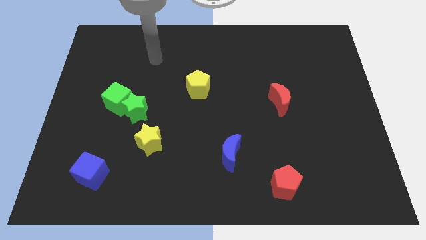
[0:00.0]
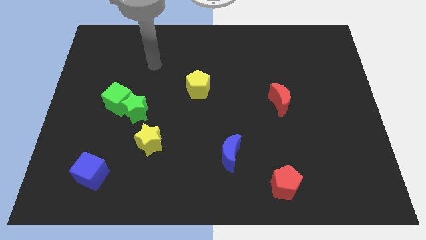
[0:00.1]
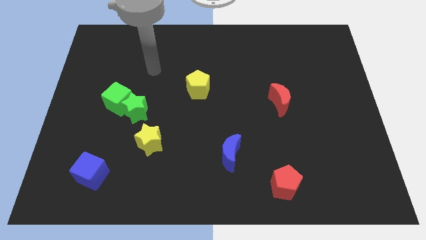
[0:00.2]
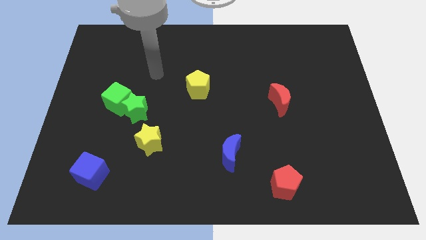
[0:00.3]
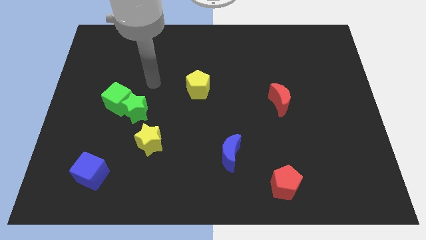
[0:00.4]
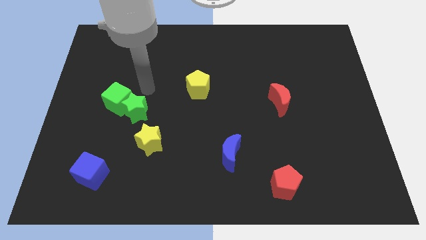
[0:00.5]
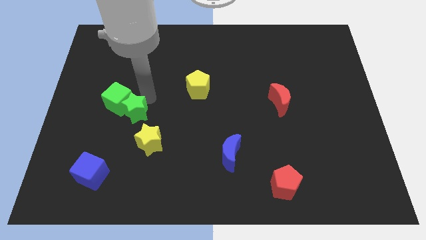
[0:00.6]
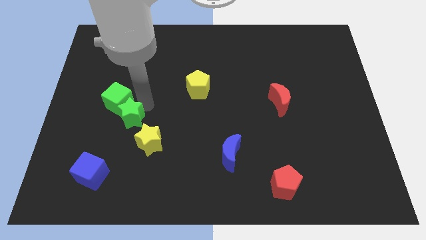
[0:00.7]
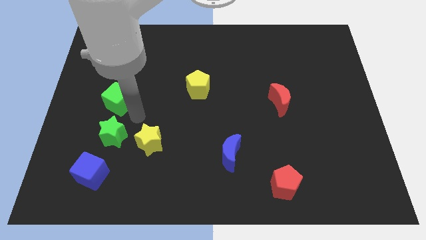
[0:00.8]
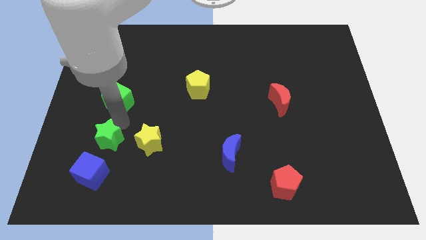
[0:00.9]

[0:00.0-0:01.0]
move the green cube away from the green star

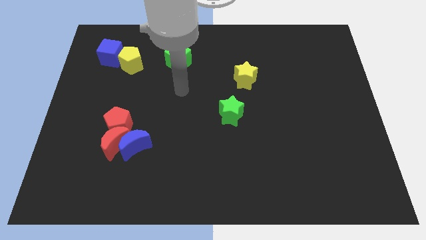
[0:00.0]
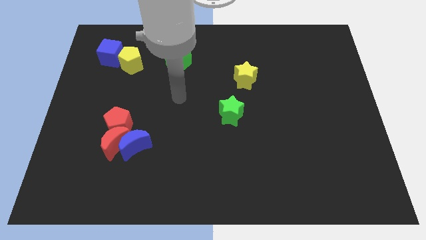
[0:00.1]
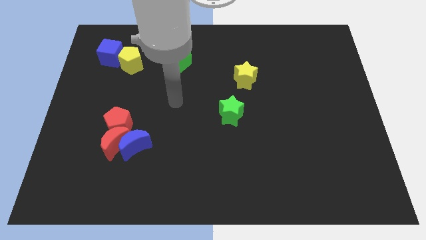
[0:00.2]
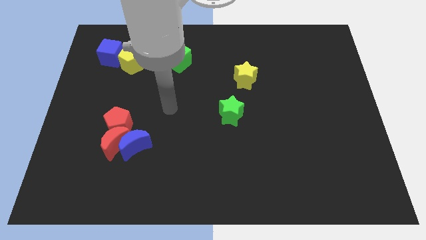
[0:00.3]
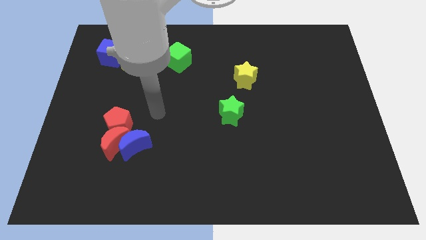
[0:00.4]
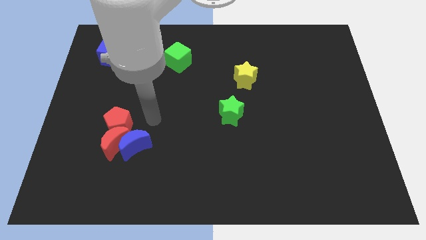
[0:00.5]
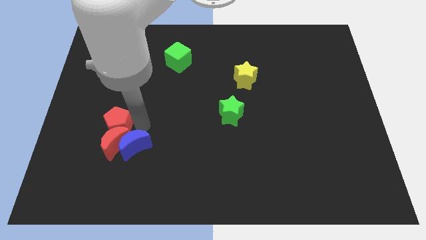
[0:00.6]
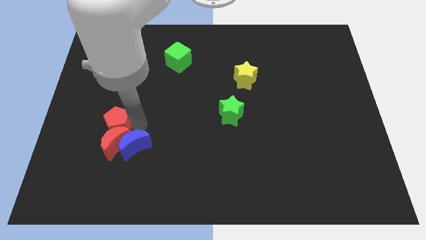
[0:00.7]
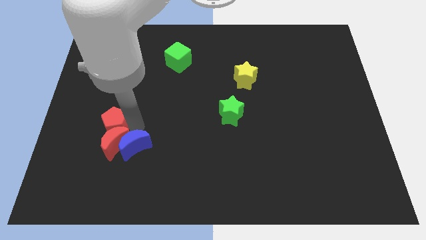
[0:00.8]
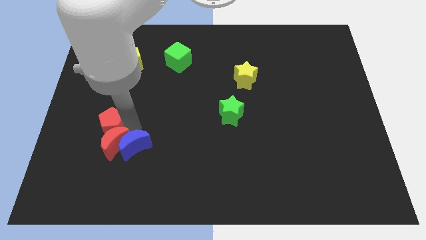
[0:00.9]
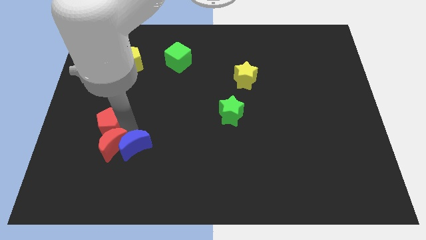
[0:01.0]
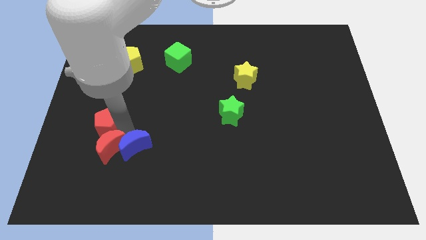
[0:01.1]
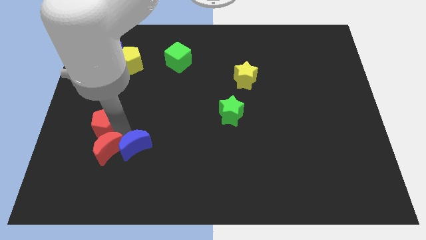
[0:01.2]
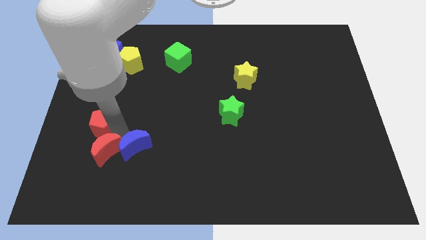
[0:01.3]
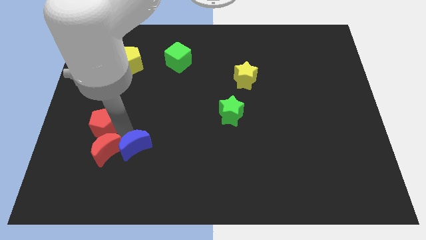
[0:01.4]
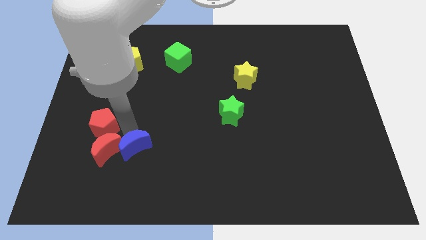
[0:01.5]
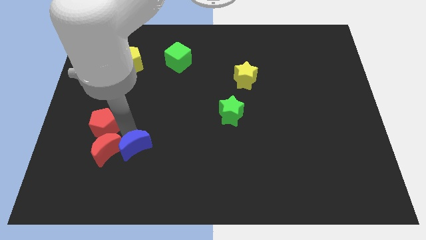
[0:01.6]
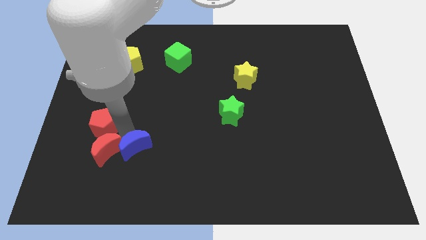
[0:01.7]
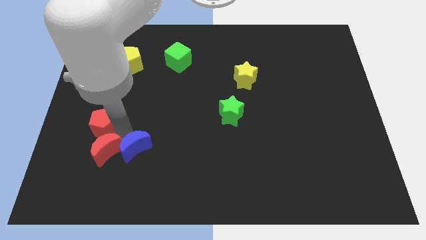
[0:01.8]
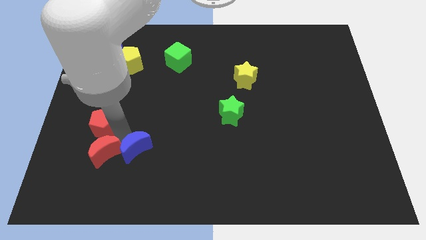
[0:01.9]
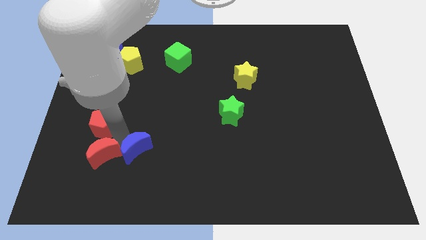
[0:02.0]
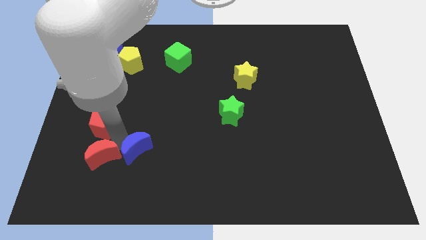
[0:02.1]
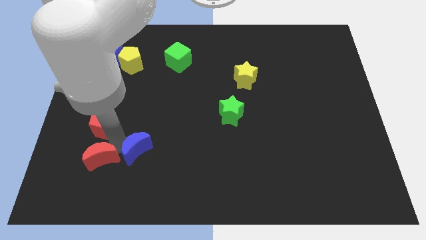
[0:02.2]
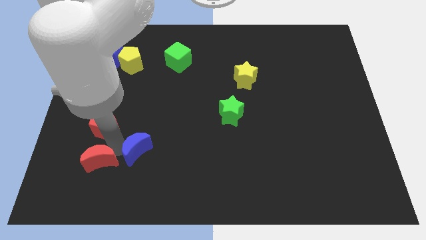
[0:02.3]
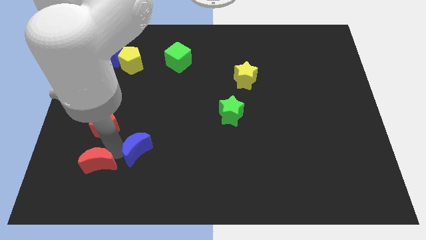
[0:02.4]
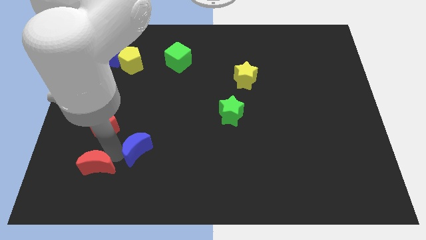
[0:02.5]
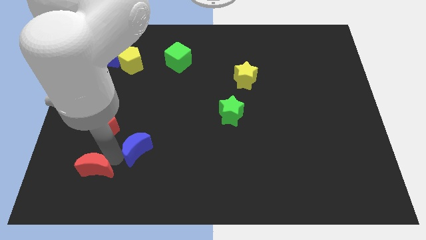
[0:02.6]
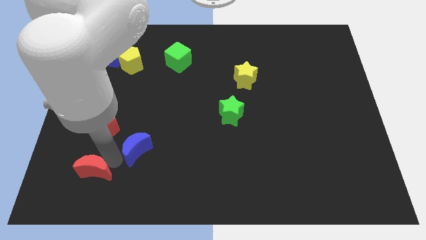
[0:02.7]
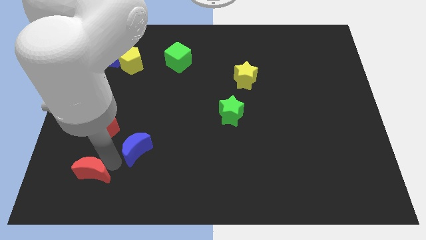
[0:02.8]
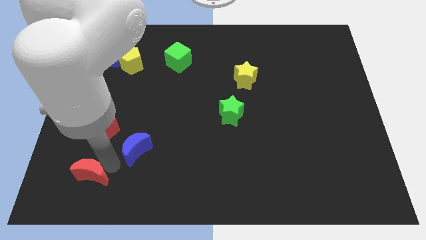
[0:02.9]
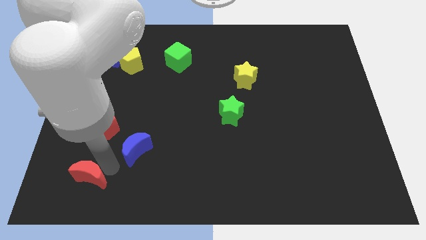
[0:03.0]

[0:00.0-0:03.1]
pull the red moon apart from the blue moon and red pentagon

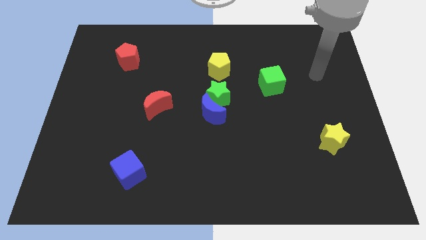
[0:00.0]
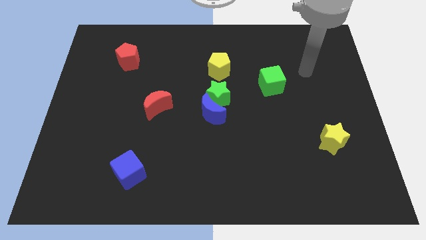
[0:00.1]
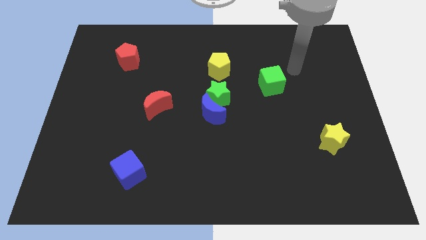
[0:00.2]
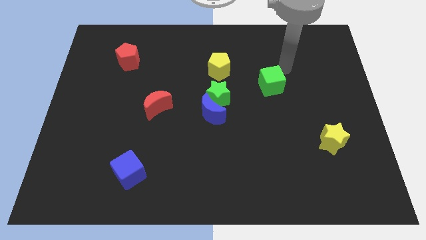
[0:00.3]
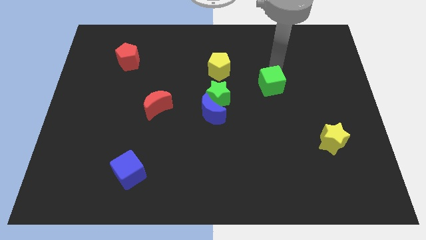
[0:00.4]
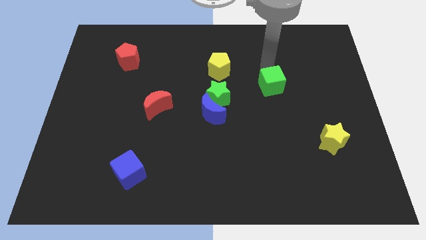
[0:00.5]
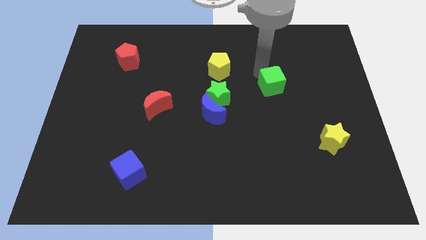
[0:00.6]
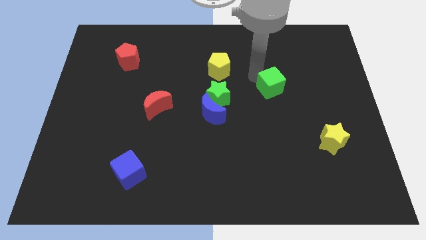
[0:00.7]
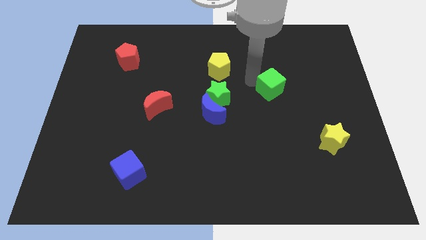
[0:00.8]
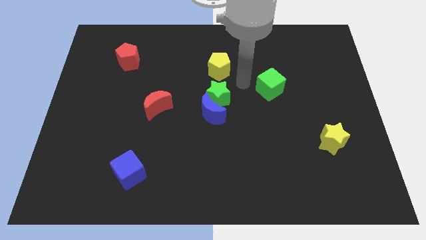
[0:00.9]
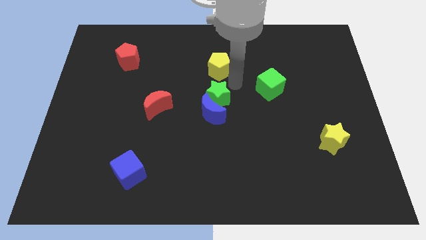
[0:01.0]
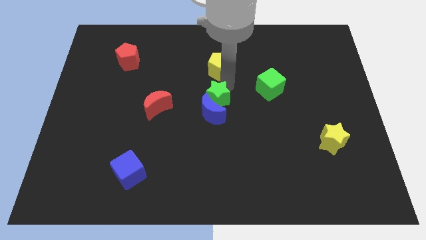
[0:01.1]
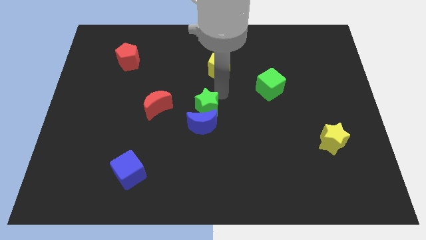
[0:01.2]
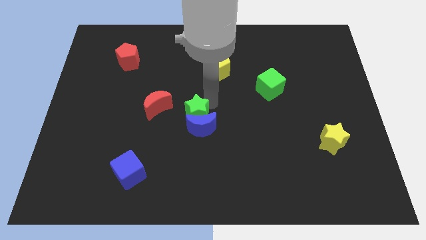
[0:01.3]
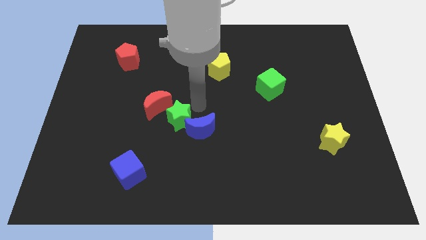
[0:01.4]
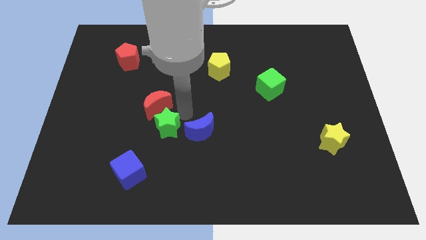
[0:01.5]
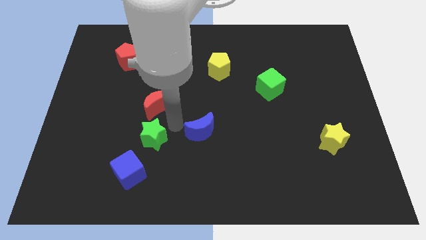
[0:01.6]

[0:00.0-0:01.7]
separate the blue moon from the green star

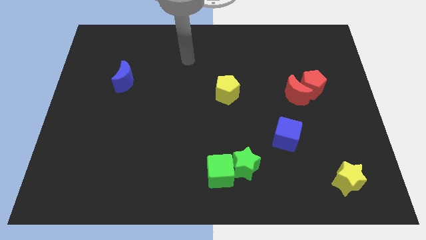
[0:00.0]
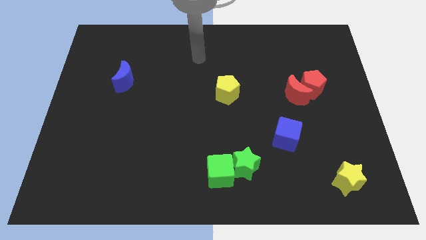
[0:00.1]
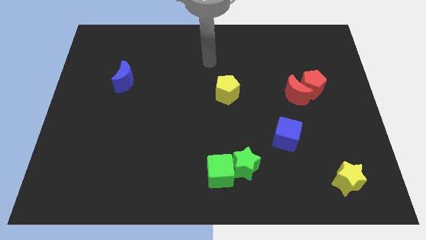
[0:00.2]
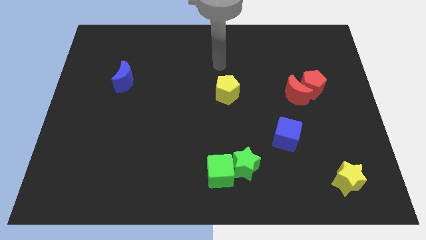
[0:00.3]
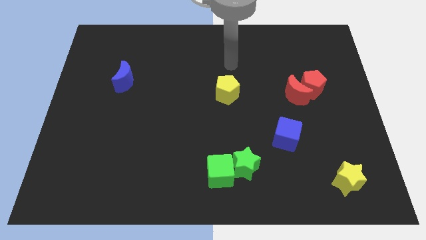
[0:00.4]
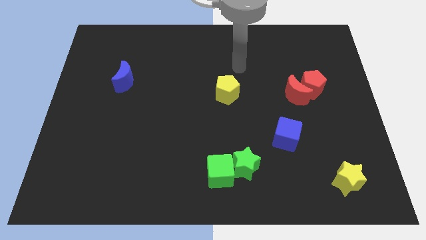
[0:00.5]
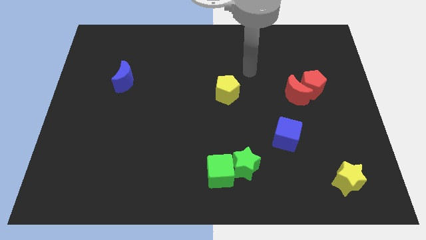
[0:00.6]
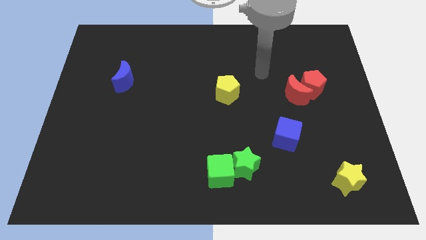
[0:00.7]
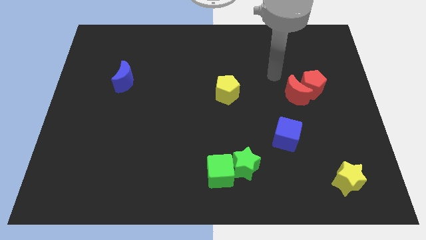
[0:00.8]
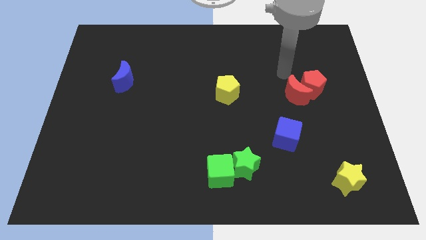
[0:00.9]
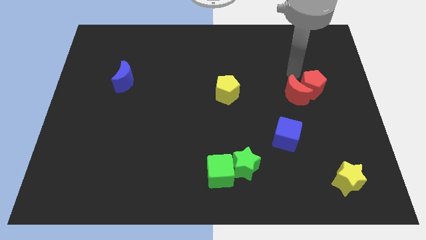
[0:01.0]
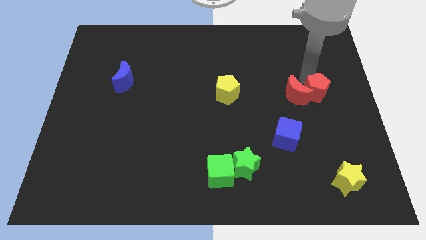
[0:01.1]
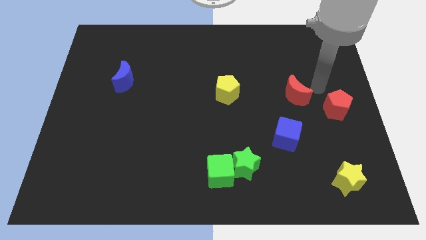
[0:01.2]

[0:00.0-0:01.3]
move the red moon away from the red pentagon

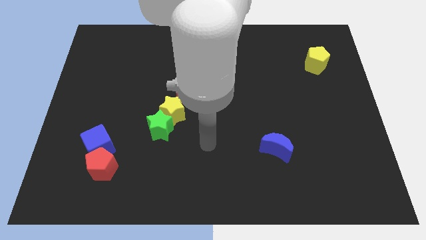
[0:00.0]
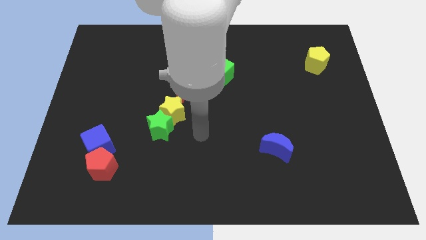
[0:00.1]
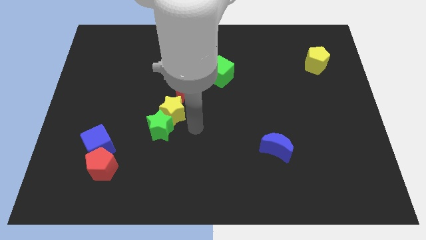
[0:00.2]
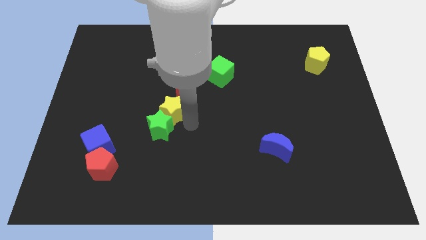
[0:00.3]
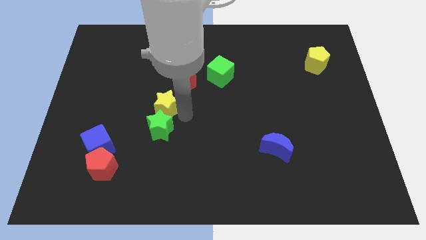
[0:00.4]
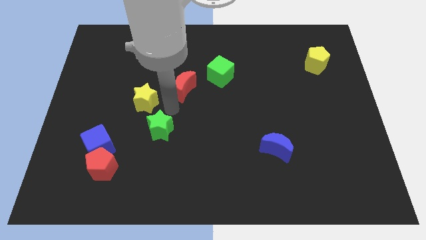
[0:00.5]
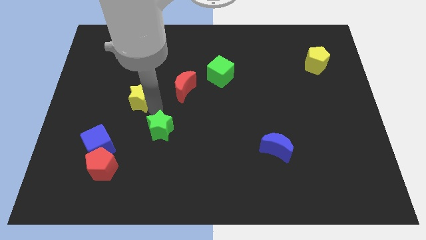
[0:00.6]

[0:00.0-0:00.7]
separate the green star from the yellow star

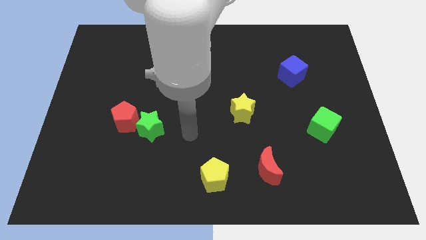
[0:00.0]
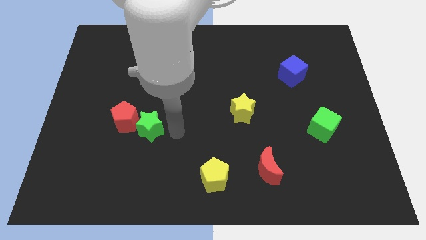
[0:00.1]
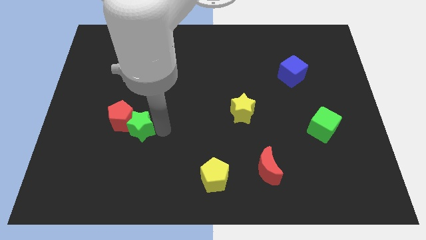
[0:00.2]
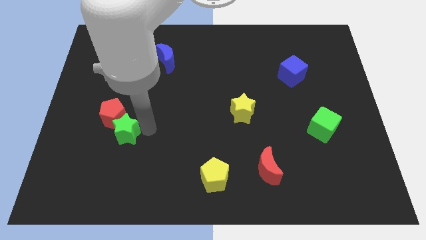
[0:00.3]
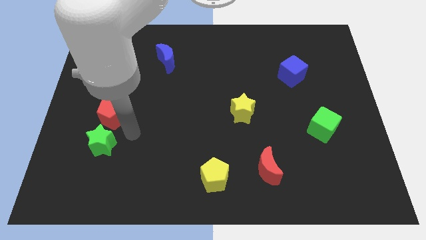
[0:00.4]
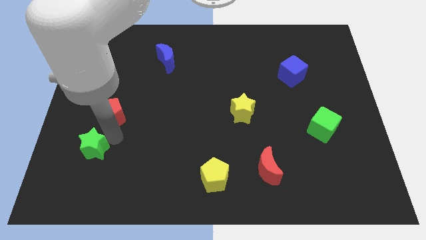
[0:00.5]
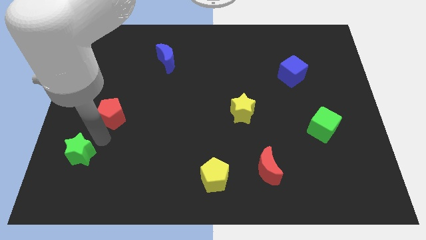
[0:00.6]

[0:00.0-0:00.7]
separate the red pentagon from the green star

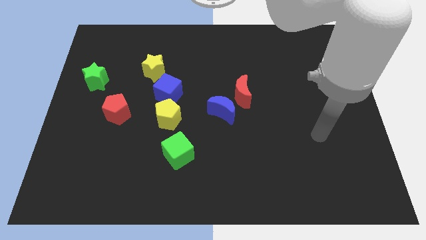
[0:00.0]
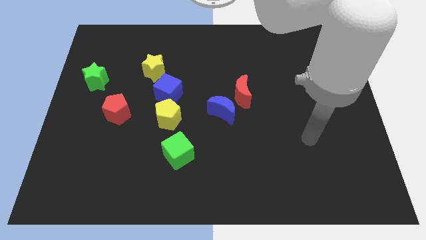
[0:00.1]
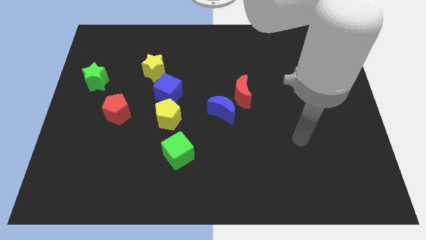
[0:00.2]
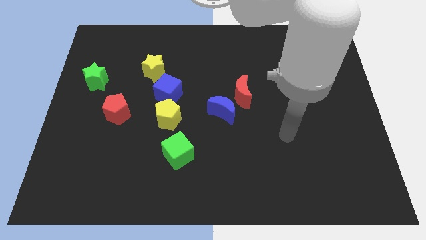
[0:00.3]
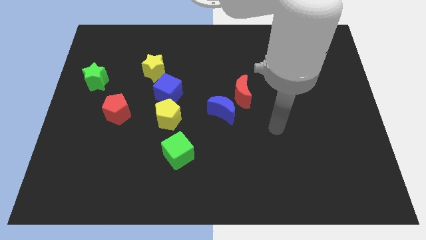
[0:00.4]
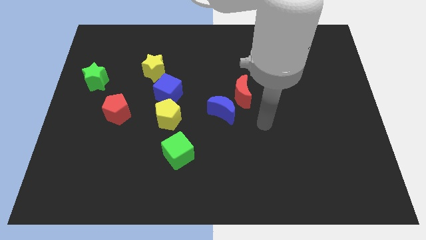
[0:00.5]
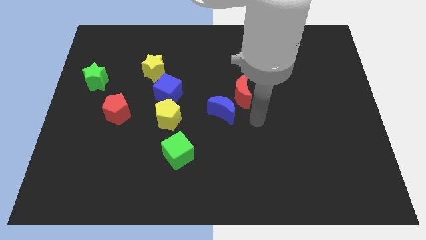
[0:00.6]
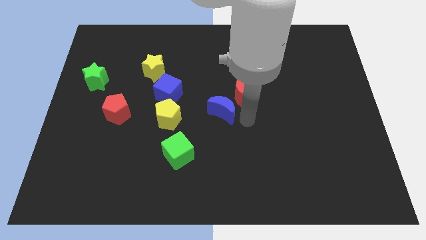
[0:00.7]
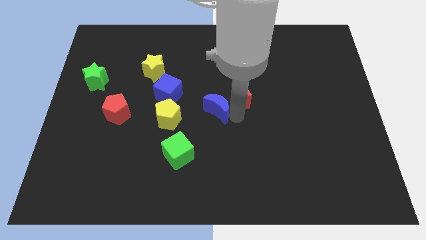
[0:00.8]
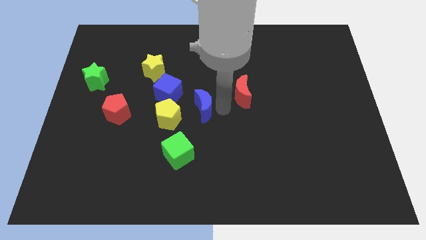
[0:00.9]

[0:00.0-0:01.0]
move the red moon away from the blue moon
